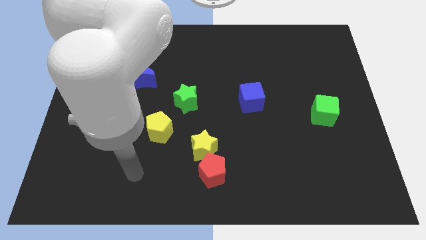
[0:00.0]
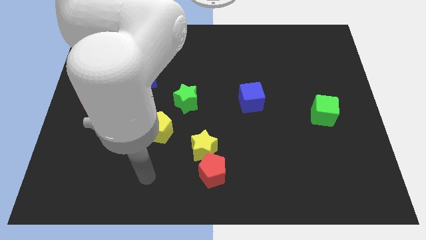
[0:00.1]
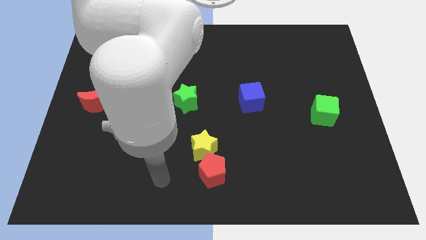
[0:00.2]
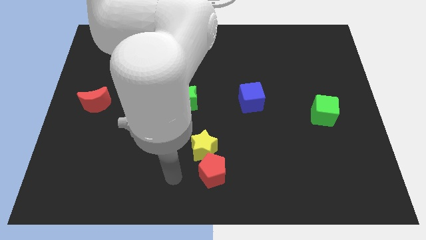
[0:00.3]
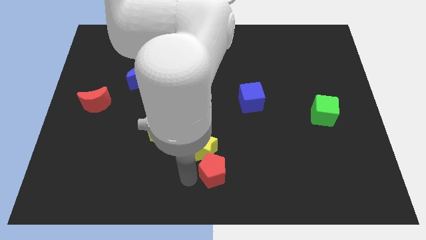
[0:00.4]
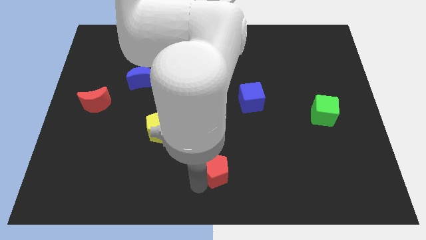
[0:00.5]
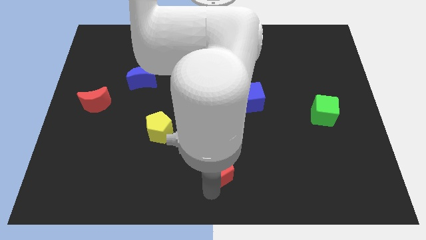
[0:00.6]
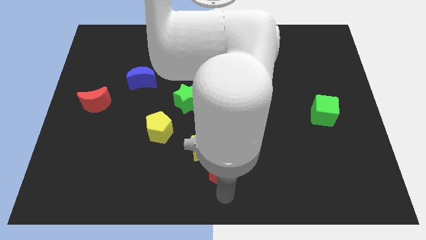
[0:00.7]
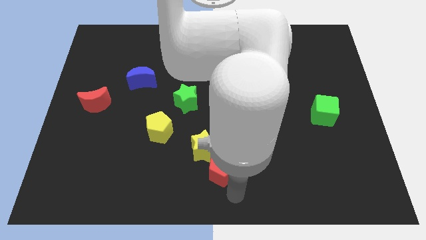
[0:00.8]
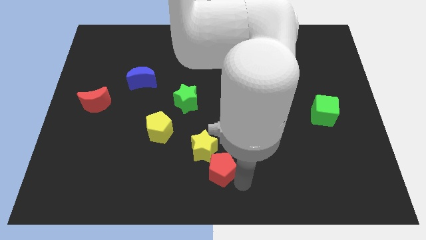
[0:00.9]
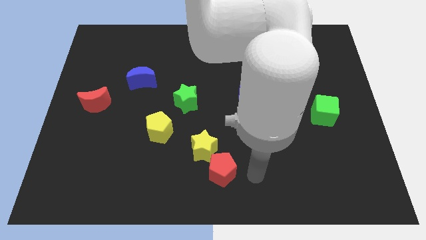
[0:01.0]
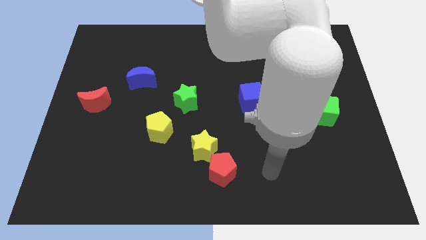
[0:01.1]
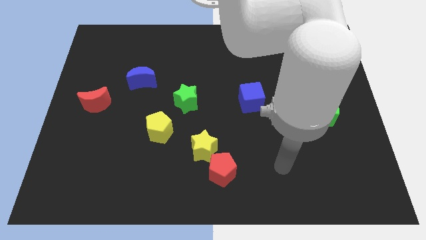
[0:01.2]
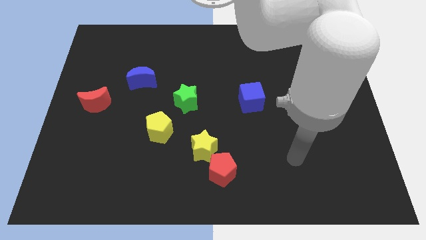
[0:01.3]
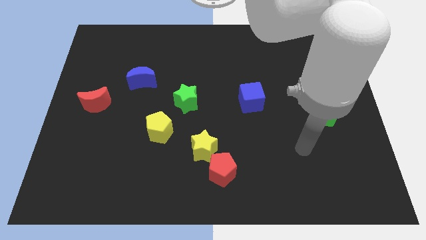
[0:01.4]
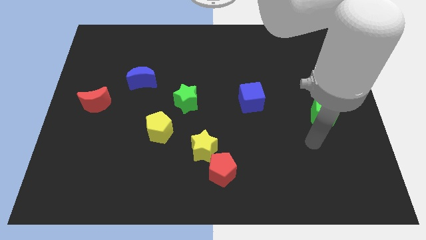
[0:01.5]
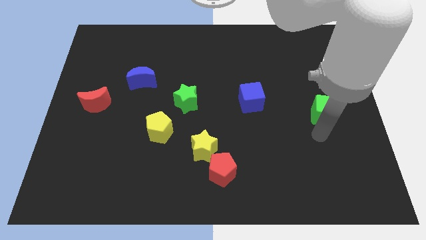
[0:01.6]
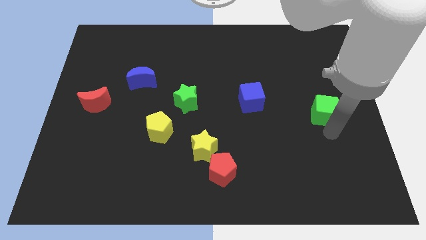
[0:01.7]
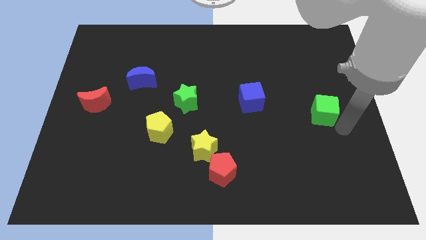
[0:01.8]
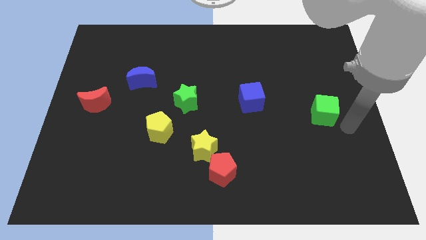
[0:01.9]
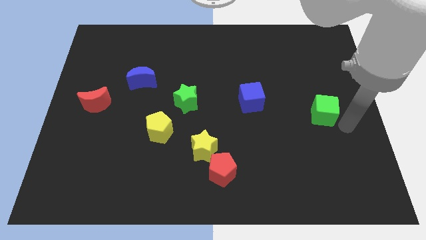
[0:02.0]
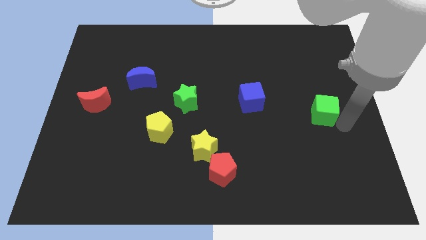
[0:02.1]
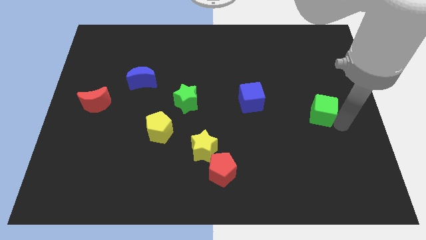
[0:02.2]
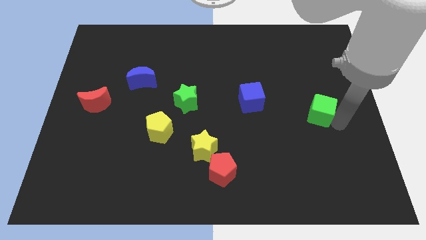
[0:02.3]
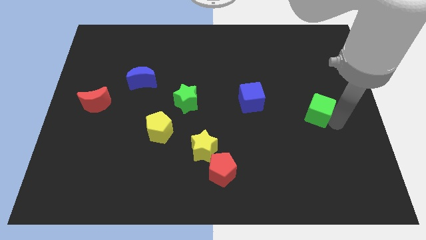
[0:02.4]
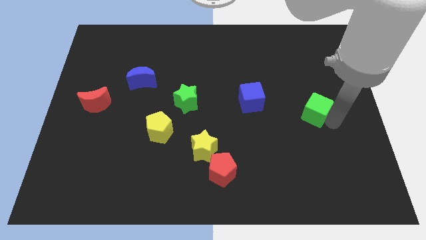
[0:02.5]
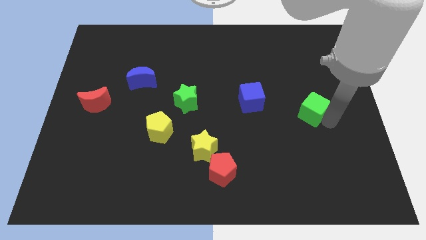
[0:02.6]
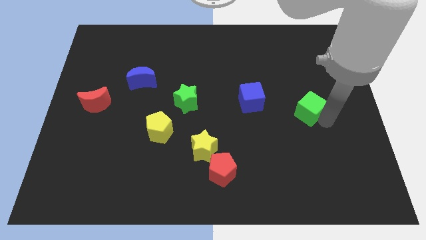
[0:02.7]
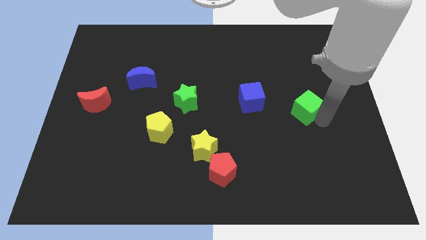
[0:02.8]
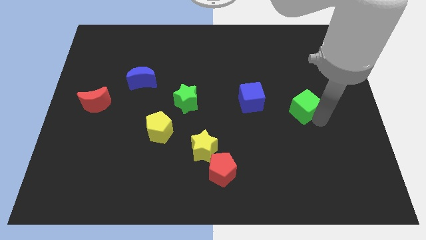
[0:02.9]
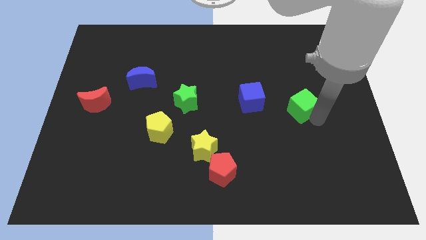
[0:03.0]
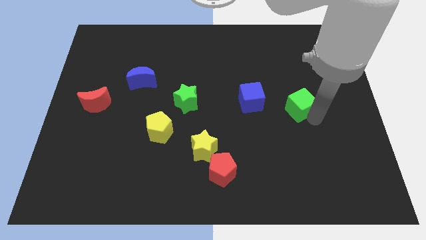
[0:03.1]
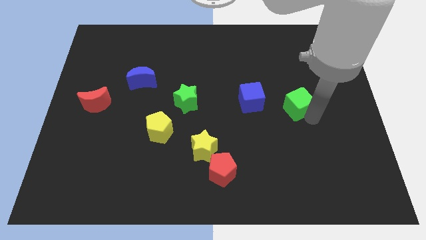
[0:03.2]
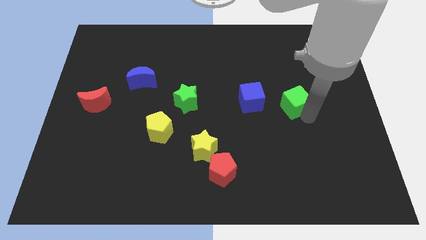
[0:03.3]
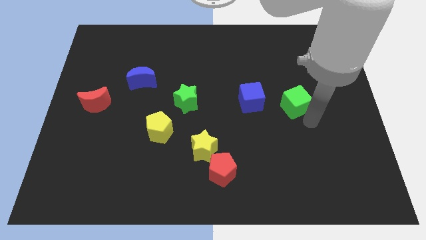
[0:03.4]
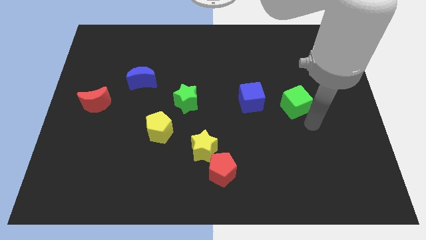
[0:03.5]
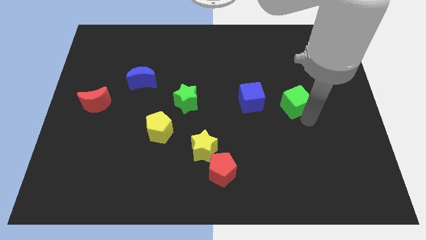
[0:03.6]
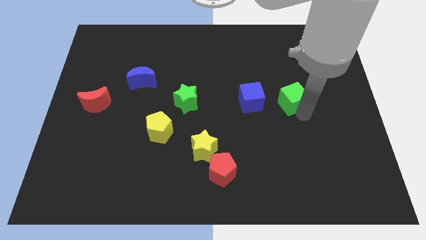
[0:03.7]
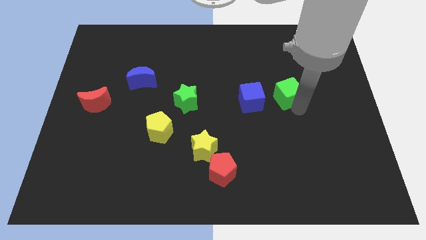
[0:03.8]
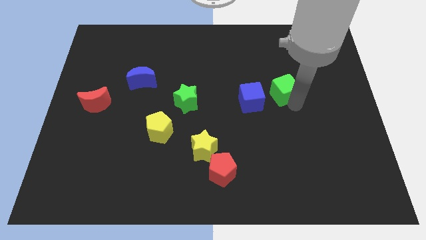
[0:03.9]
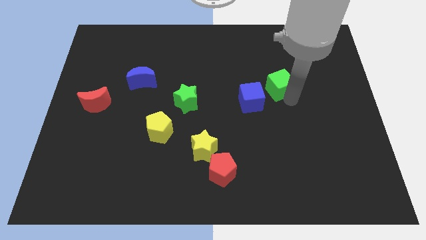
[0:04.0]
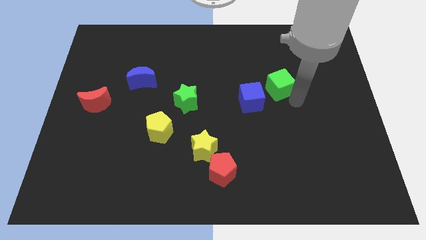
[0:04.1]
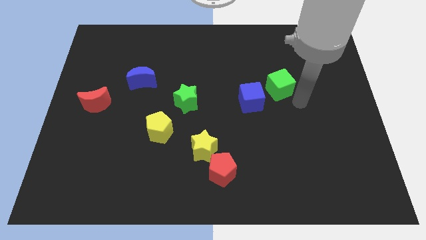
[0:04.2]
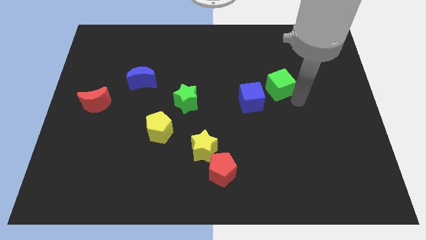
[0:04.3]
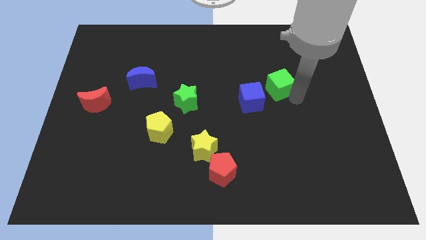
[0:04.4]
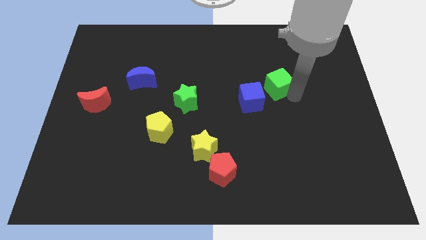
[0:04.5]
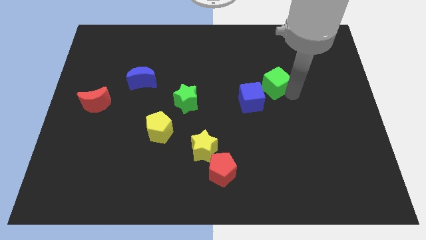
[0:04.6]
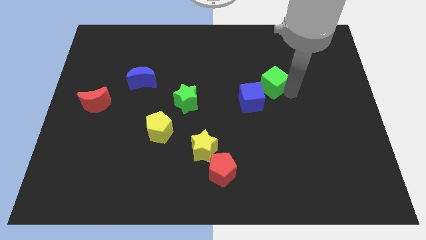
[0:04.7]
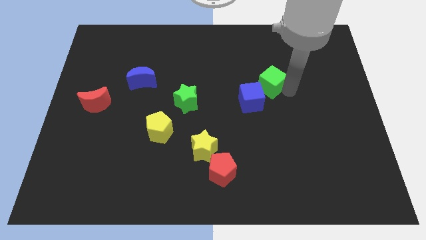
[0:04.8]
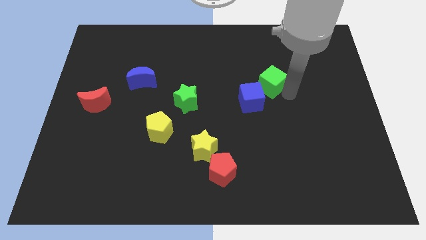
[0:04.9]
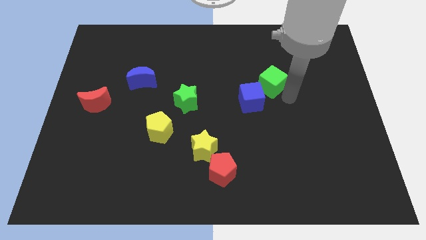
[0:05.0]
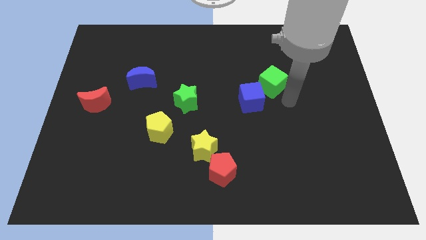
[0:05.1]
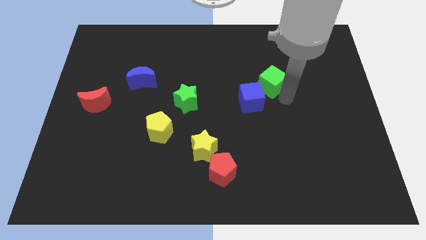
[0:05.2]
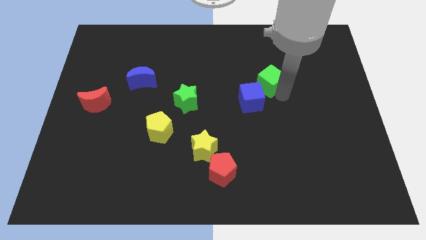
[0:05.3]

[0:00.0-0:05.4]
move the green cube above the blue cube

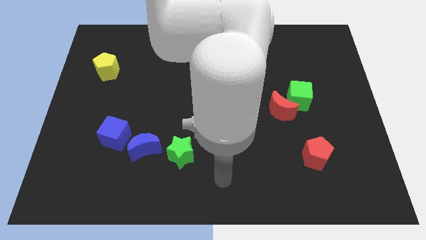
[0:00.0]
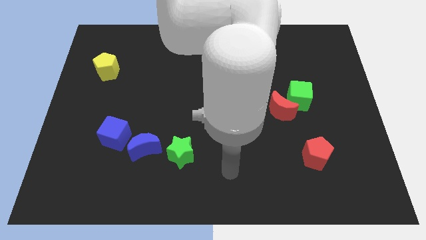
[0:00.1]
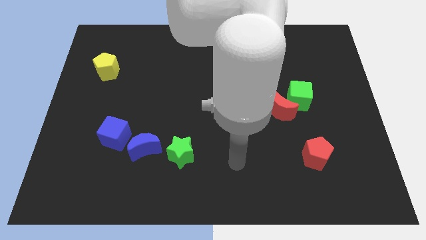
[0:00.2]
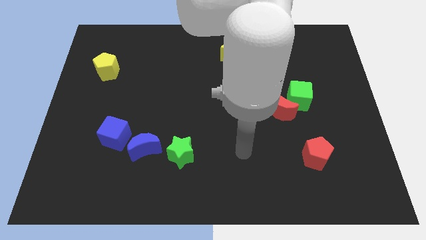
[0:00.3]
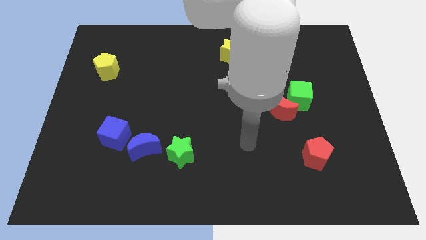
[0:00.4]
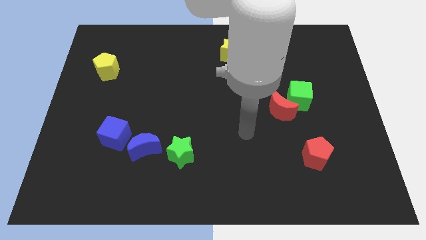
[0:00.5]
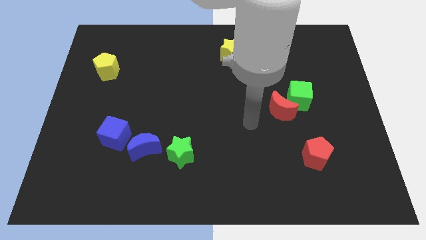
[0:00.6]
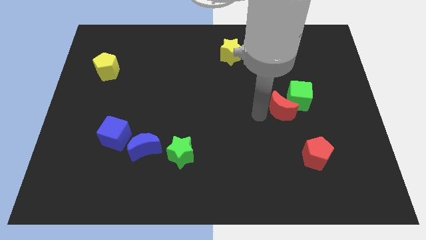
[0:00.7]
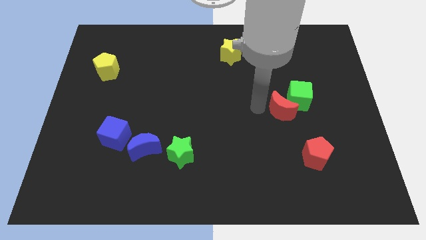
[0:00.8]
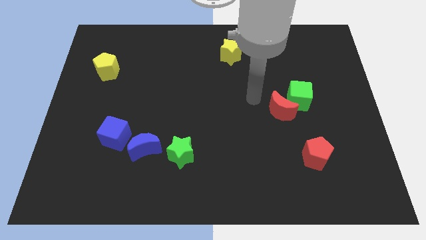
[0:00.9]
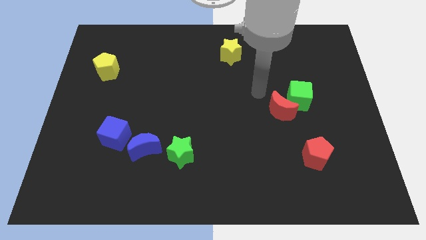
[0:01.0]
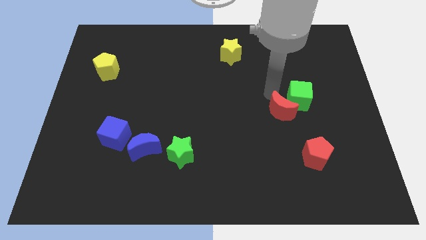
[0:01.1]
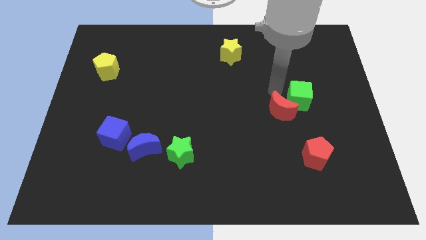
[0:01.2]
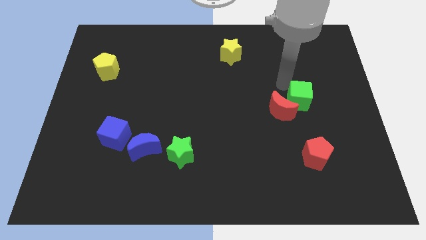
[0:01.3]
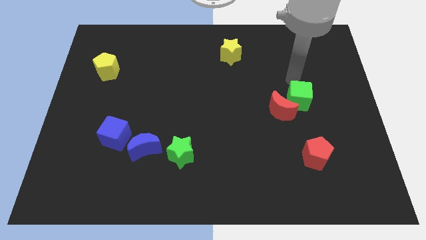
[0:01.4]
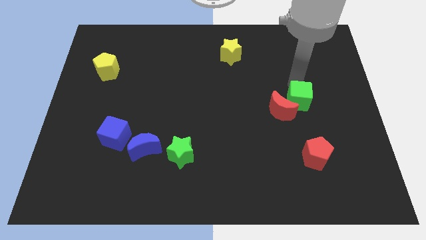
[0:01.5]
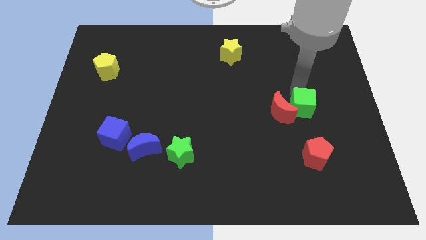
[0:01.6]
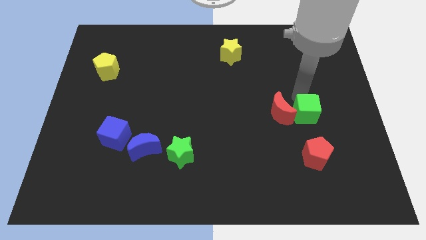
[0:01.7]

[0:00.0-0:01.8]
push the green cube diagonally down and to the right of the red moon
